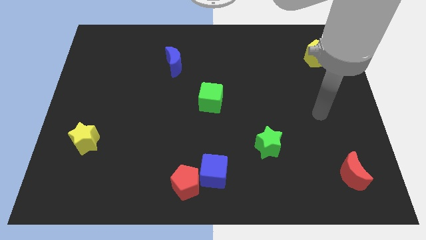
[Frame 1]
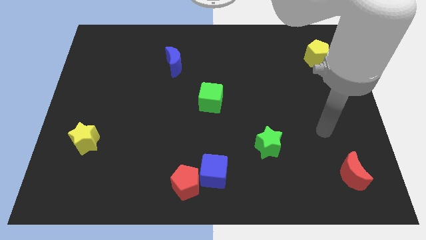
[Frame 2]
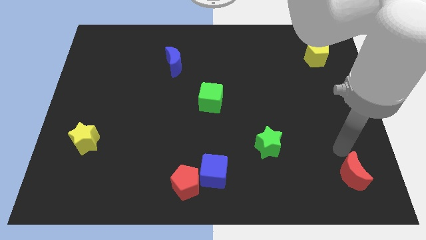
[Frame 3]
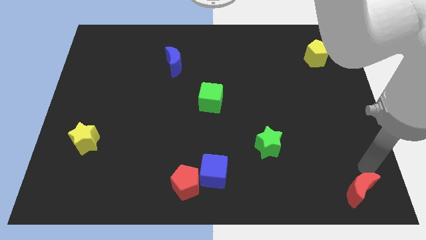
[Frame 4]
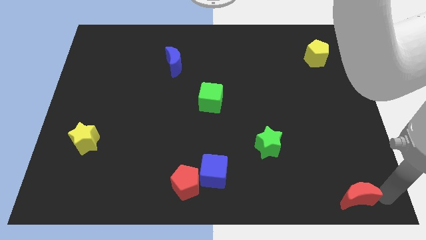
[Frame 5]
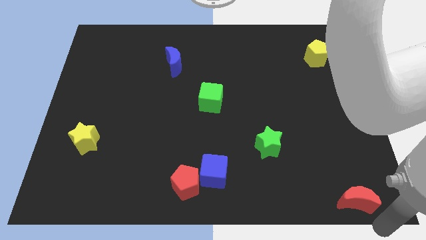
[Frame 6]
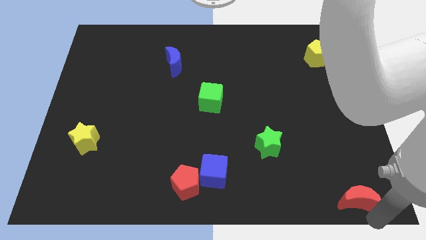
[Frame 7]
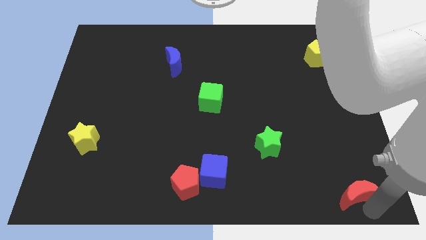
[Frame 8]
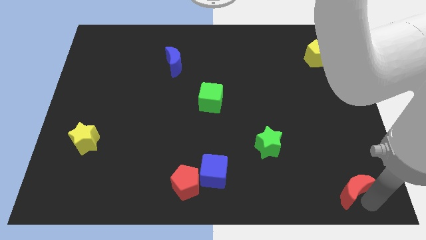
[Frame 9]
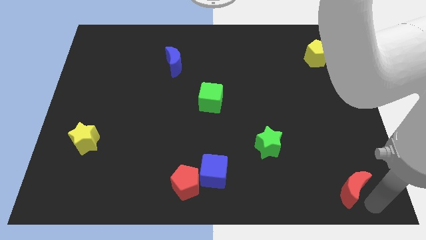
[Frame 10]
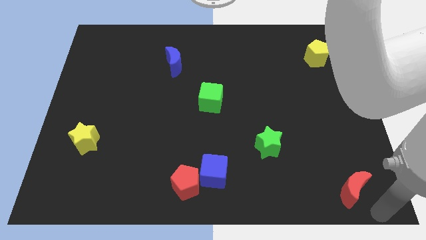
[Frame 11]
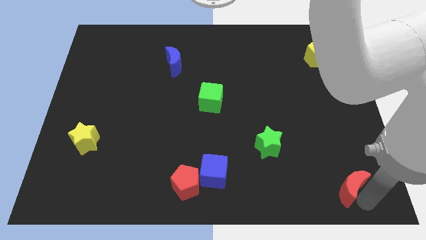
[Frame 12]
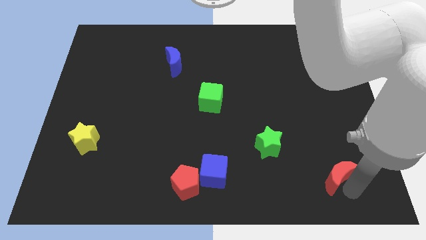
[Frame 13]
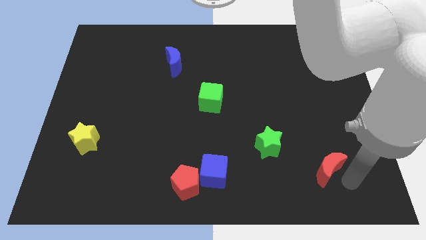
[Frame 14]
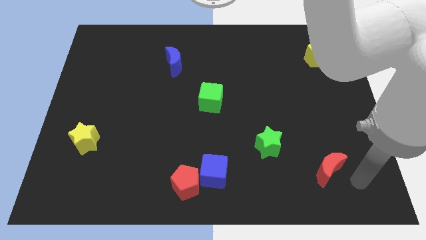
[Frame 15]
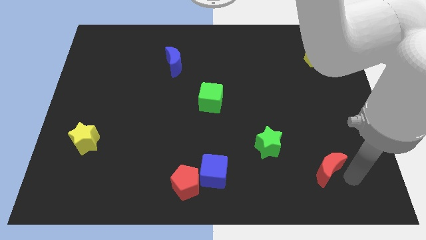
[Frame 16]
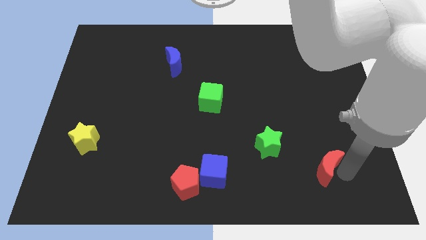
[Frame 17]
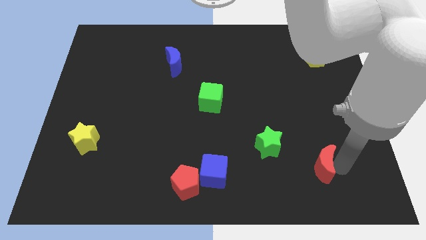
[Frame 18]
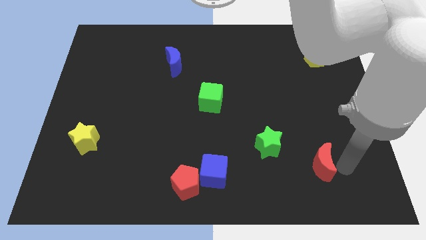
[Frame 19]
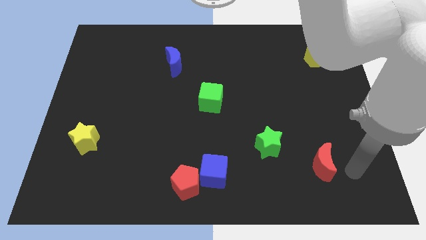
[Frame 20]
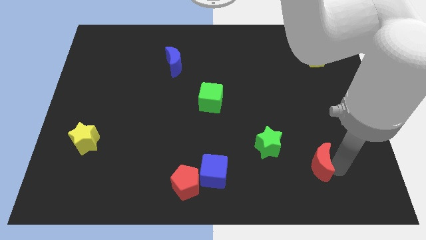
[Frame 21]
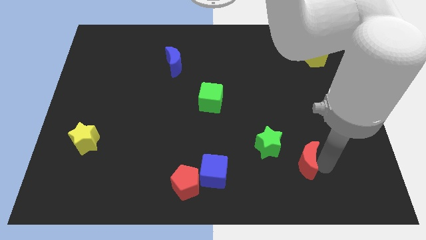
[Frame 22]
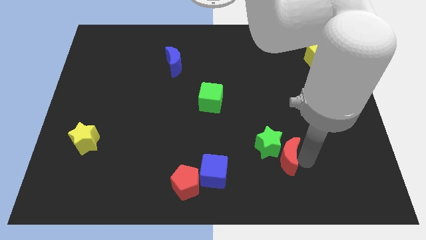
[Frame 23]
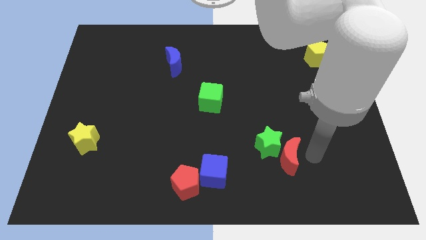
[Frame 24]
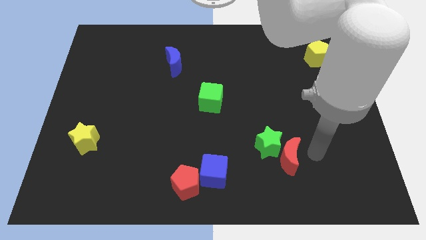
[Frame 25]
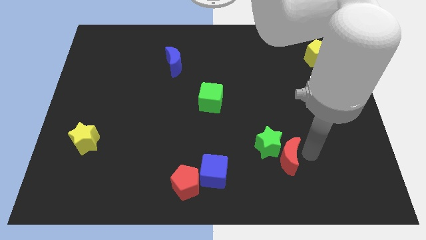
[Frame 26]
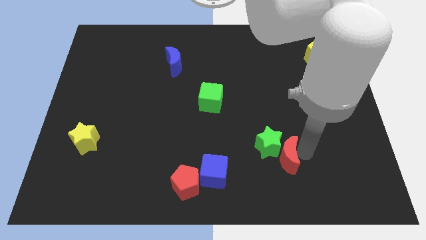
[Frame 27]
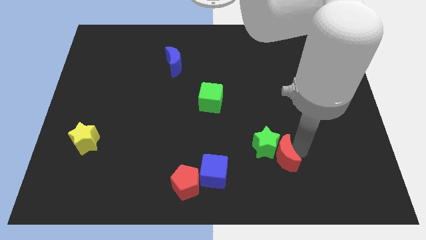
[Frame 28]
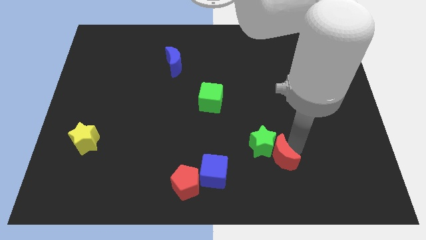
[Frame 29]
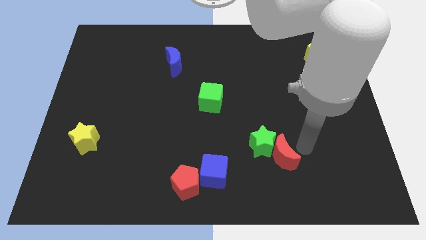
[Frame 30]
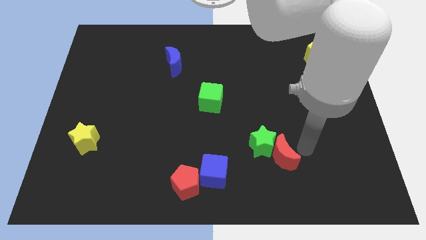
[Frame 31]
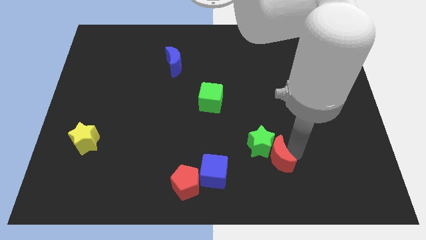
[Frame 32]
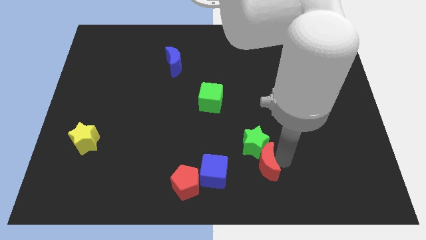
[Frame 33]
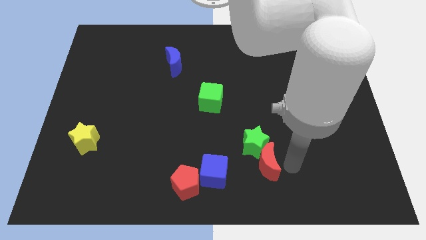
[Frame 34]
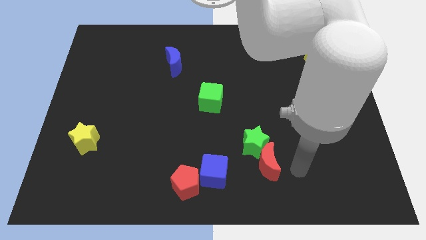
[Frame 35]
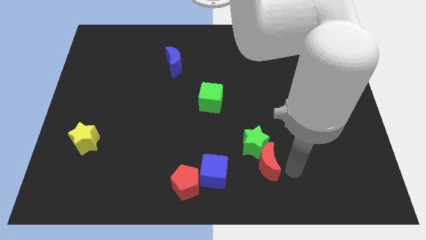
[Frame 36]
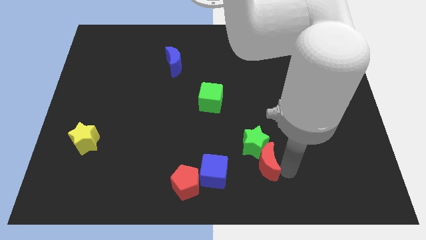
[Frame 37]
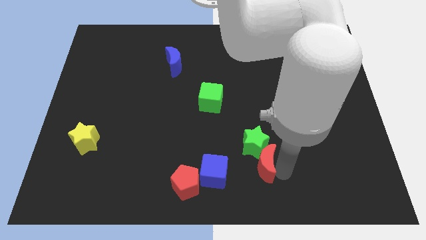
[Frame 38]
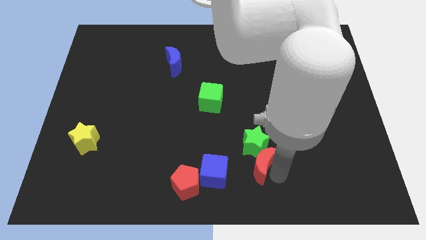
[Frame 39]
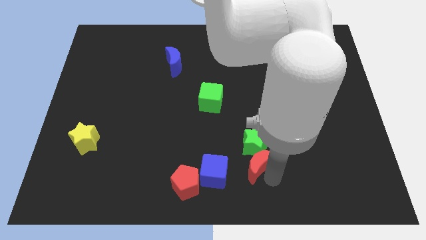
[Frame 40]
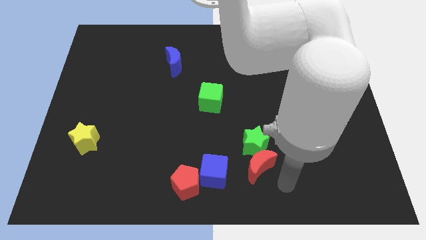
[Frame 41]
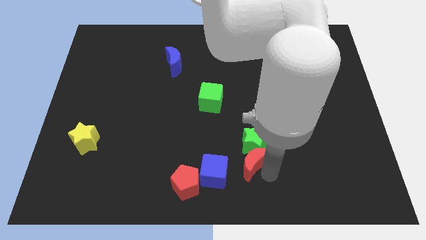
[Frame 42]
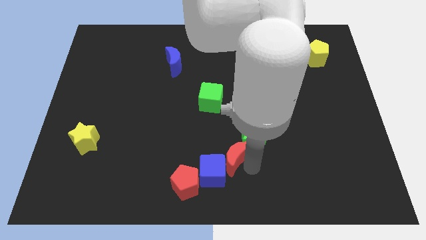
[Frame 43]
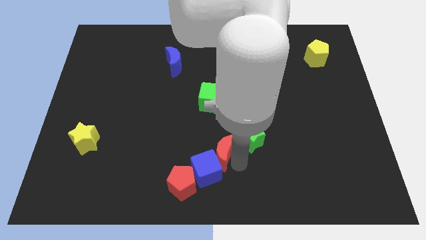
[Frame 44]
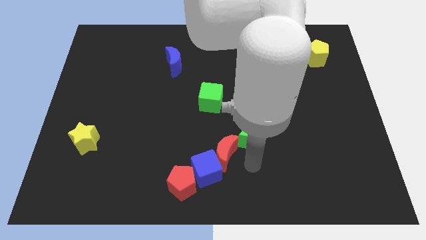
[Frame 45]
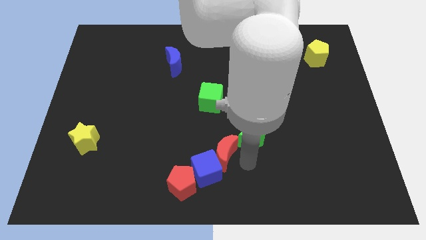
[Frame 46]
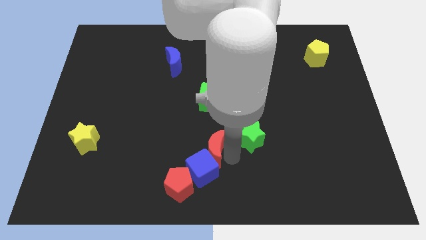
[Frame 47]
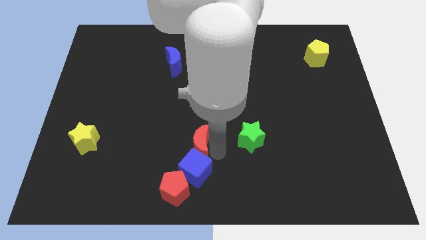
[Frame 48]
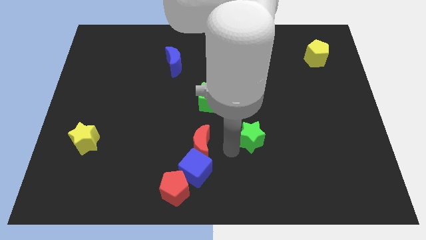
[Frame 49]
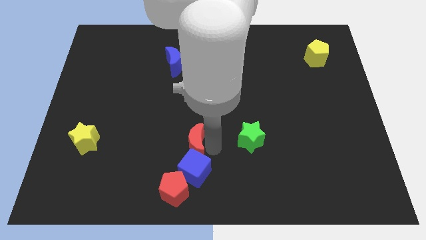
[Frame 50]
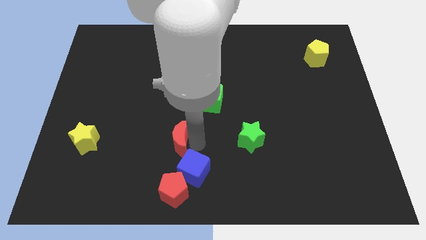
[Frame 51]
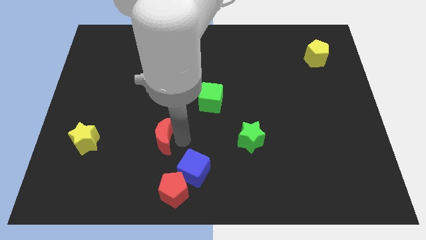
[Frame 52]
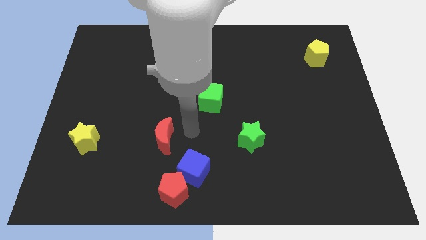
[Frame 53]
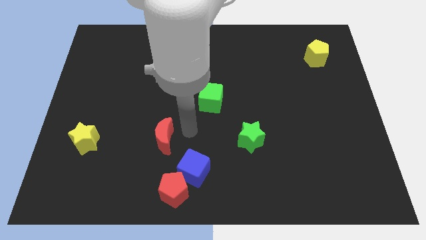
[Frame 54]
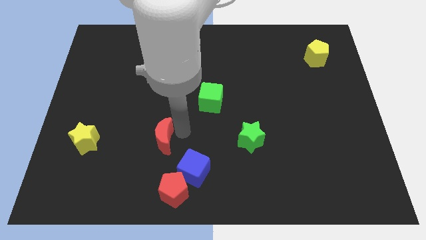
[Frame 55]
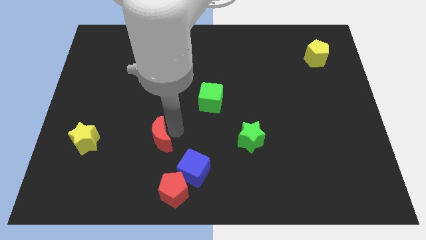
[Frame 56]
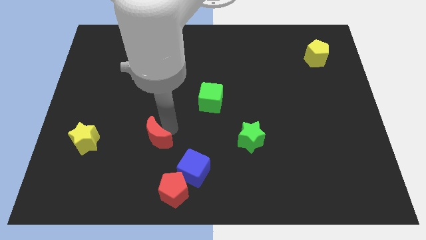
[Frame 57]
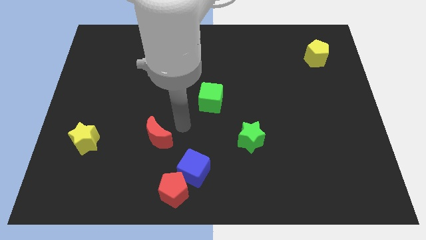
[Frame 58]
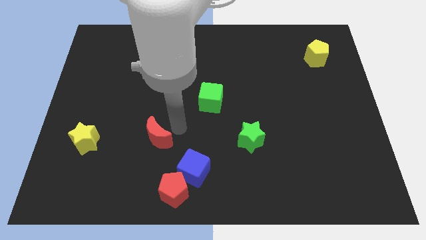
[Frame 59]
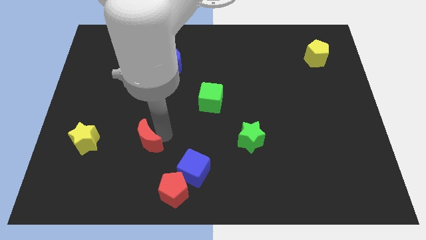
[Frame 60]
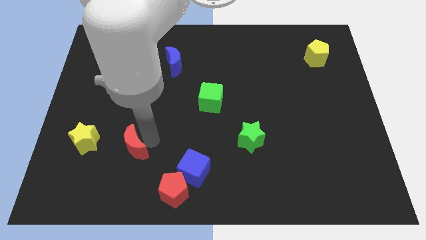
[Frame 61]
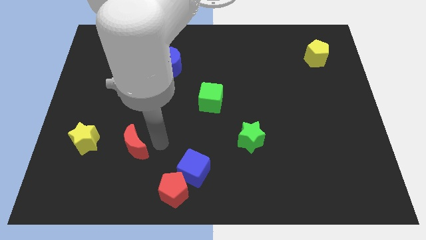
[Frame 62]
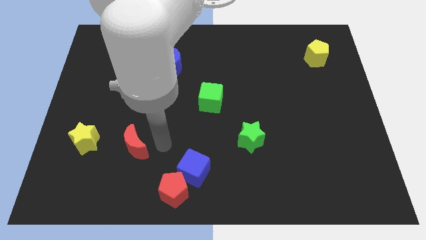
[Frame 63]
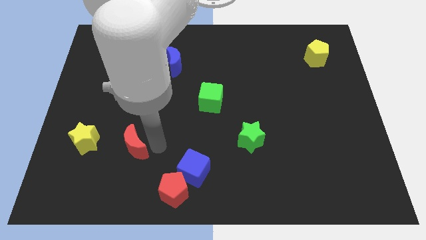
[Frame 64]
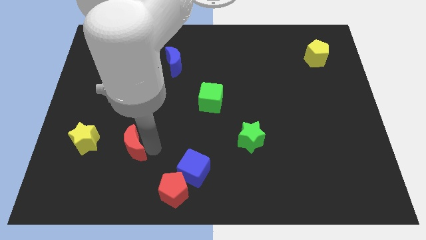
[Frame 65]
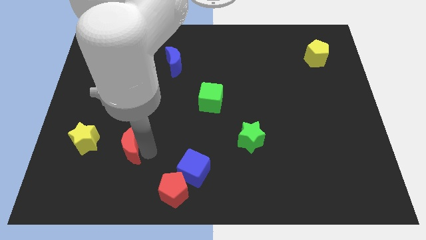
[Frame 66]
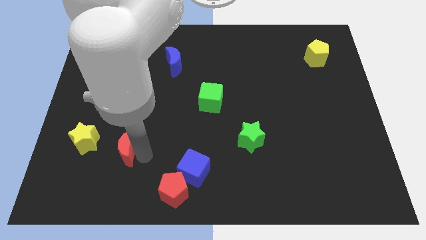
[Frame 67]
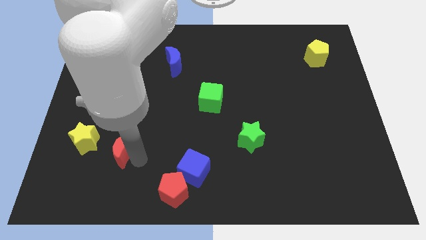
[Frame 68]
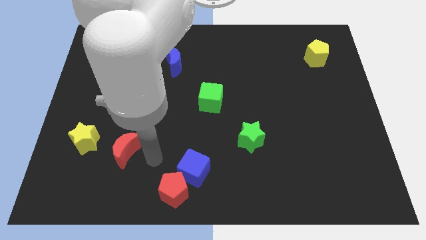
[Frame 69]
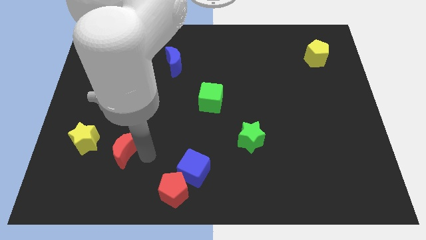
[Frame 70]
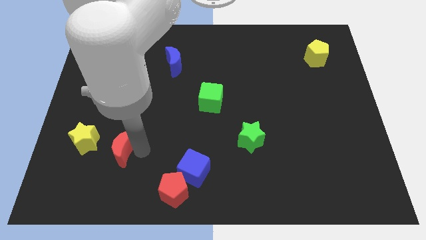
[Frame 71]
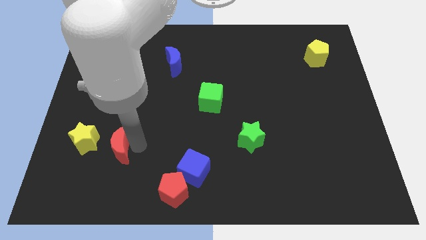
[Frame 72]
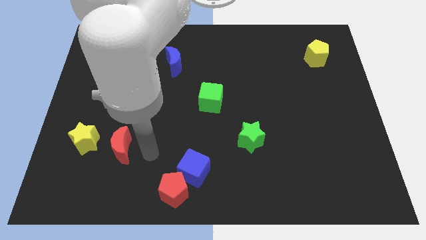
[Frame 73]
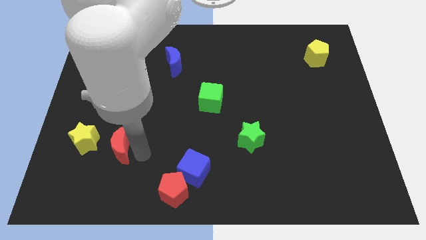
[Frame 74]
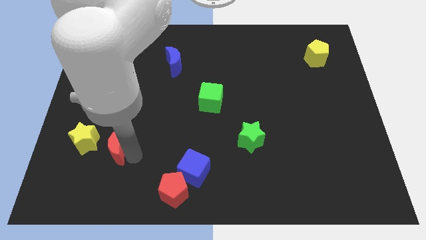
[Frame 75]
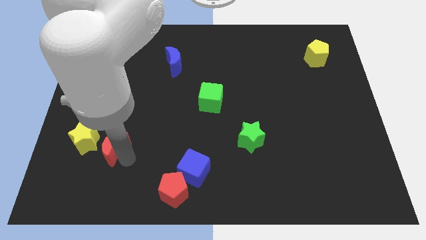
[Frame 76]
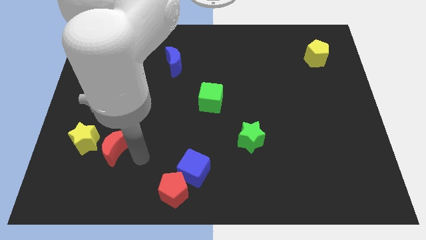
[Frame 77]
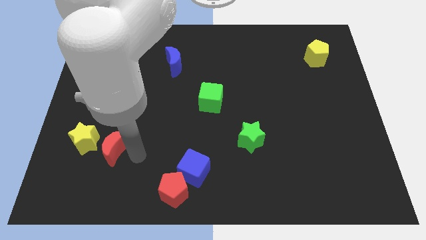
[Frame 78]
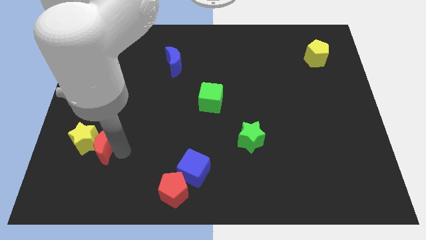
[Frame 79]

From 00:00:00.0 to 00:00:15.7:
slide the red moon next to the yellow star
